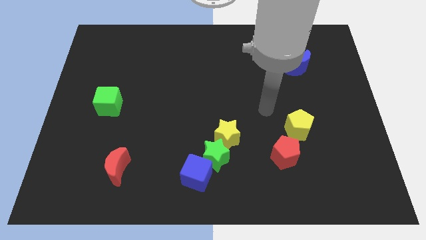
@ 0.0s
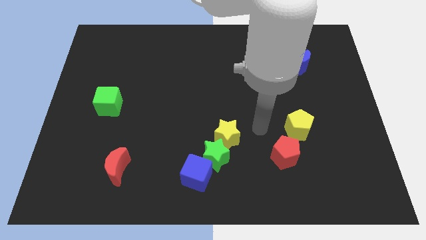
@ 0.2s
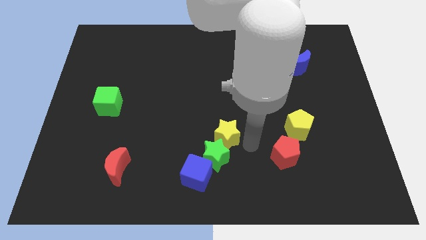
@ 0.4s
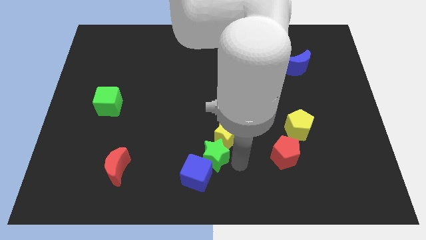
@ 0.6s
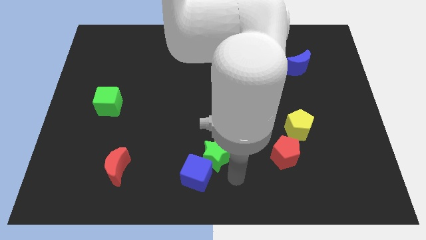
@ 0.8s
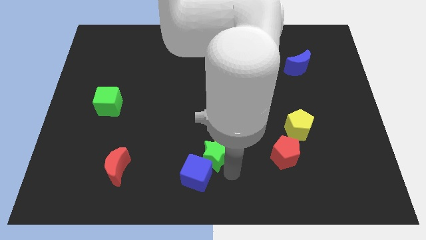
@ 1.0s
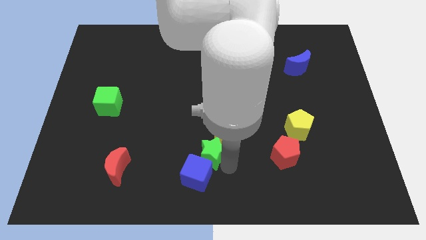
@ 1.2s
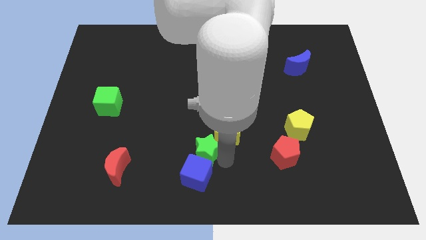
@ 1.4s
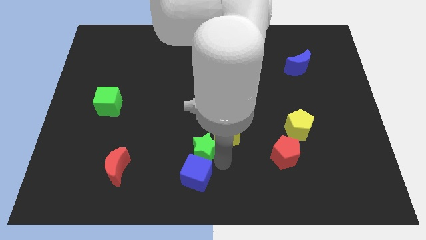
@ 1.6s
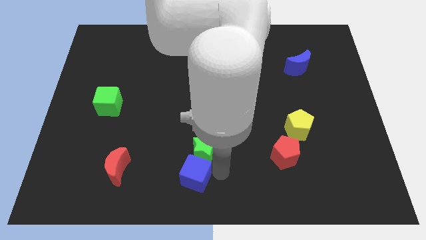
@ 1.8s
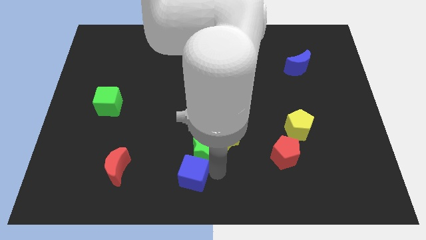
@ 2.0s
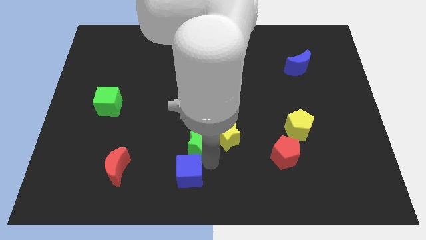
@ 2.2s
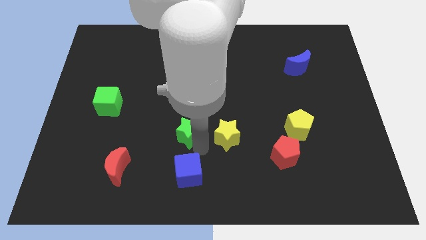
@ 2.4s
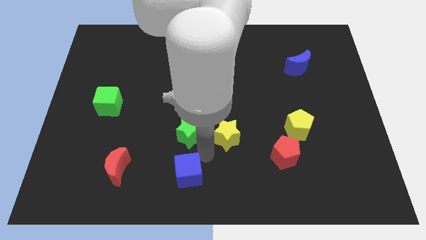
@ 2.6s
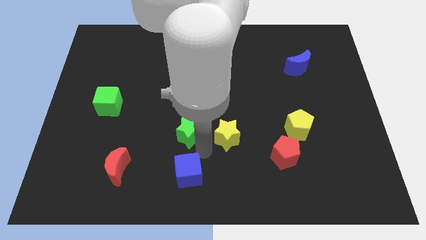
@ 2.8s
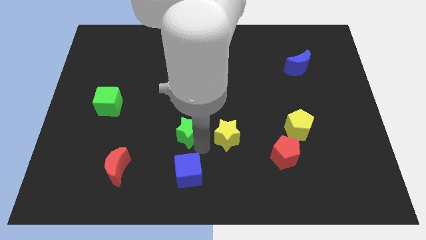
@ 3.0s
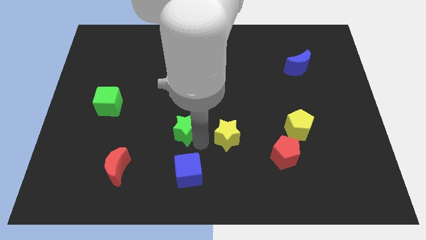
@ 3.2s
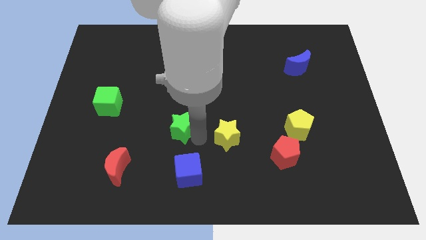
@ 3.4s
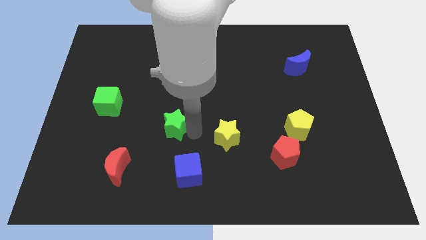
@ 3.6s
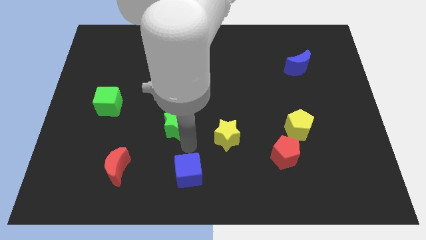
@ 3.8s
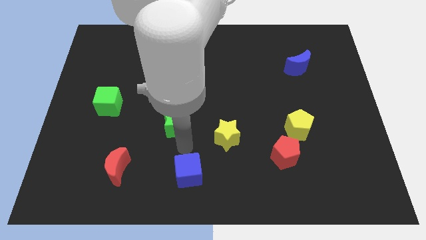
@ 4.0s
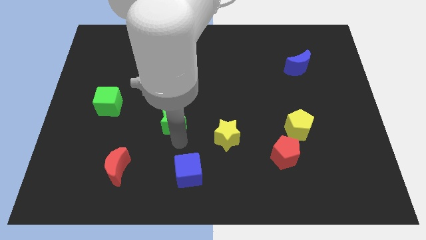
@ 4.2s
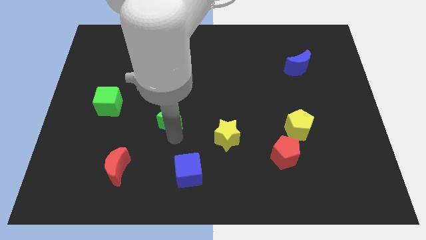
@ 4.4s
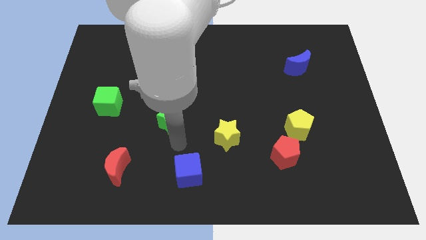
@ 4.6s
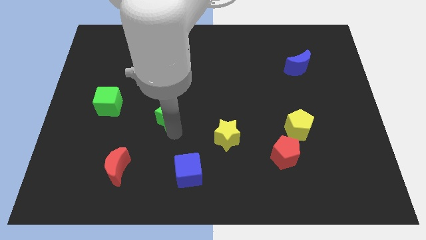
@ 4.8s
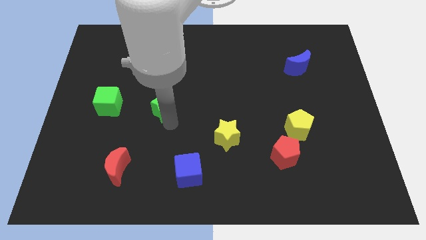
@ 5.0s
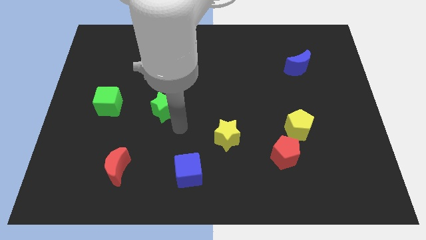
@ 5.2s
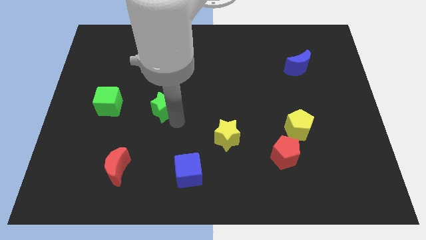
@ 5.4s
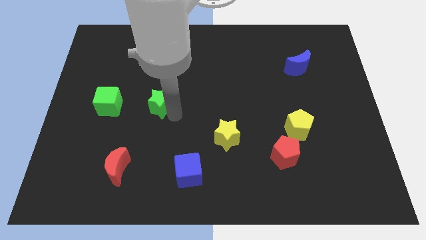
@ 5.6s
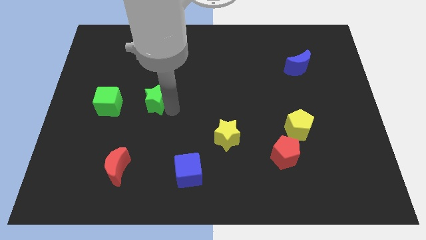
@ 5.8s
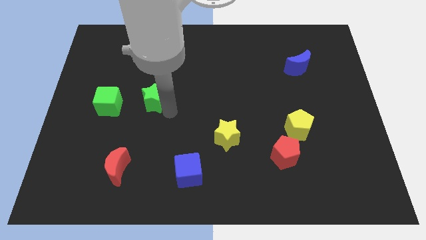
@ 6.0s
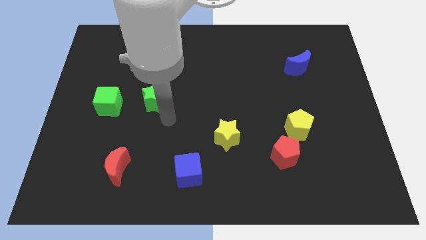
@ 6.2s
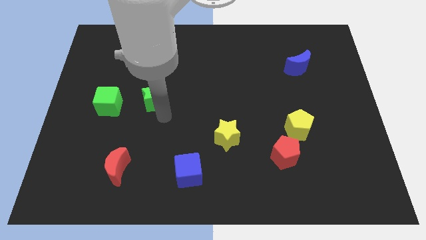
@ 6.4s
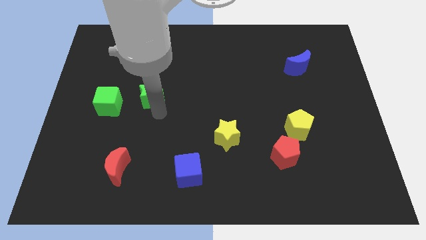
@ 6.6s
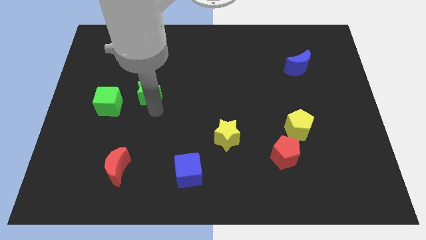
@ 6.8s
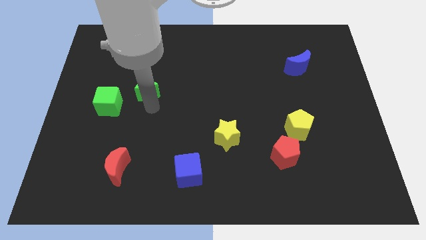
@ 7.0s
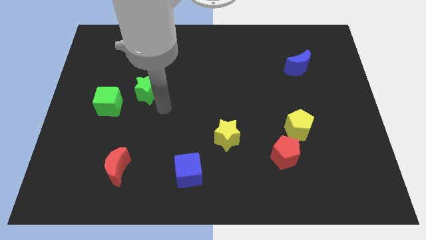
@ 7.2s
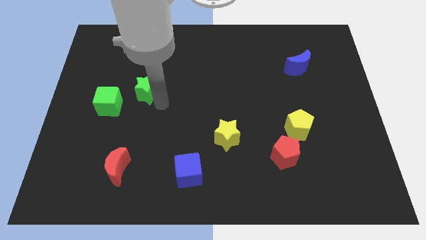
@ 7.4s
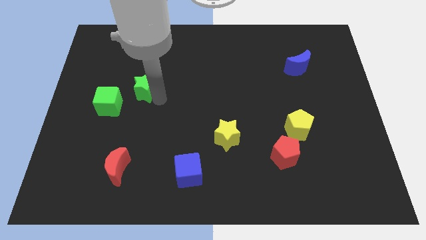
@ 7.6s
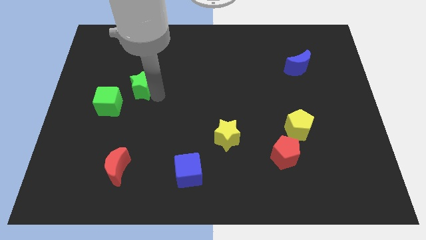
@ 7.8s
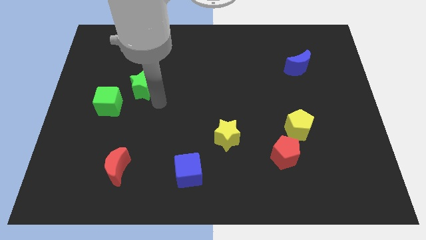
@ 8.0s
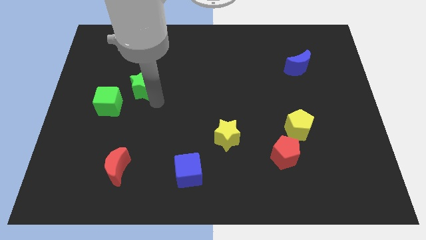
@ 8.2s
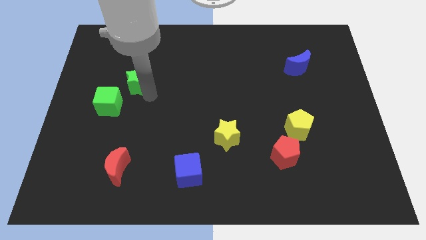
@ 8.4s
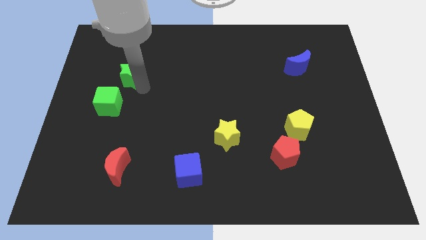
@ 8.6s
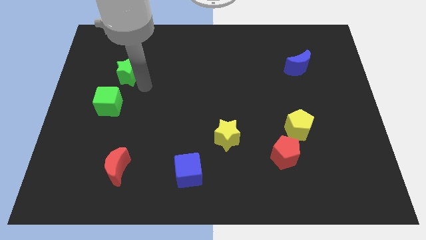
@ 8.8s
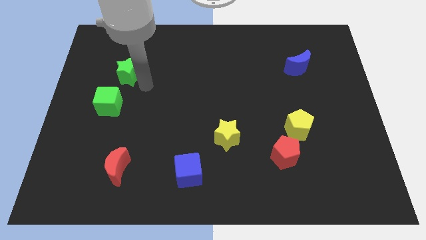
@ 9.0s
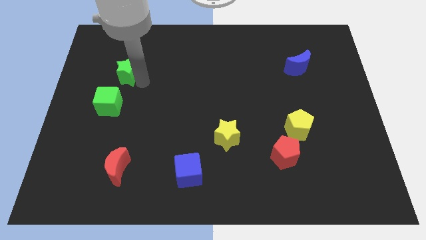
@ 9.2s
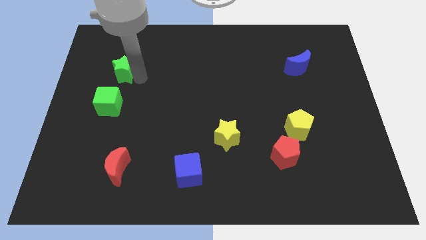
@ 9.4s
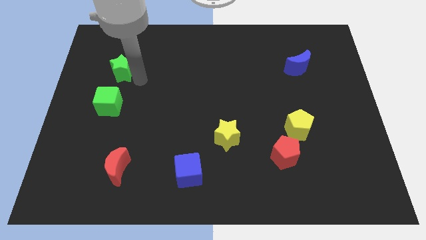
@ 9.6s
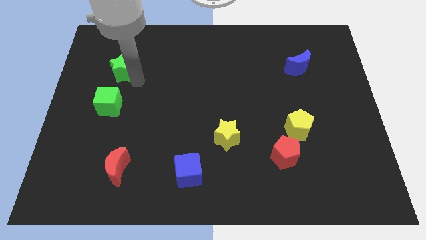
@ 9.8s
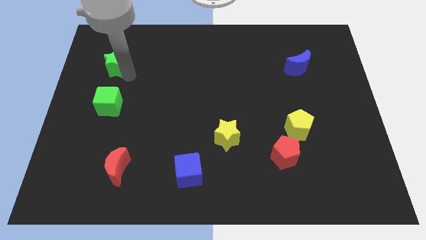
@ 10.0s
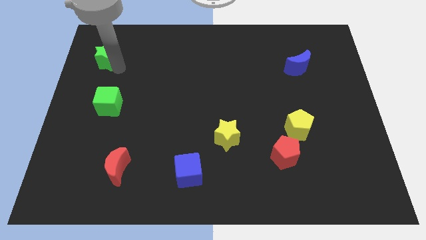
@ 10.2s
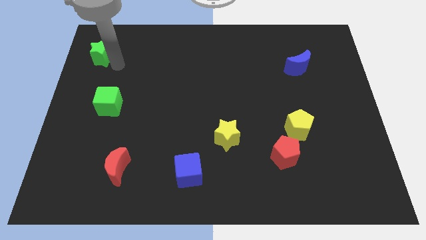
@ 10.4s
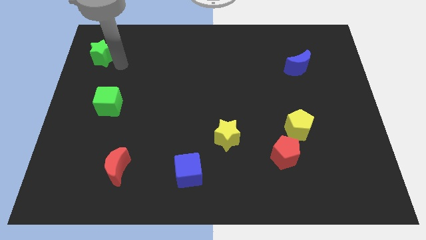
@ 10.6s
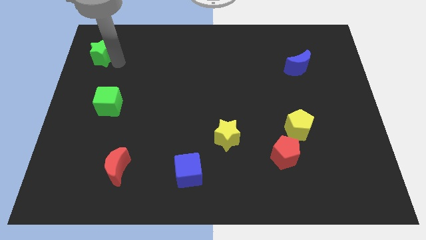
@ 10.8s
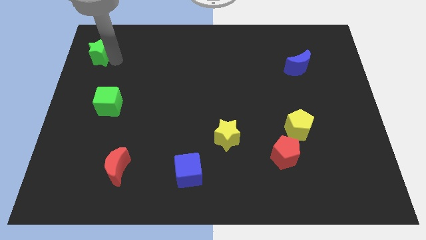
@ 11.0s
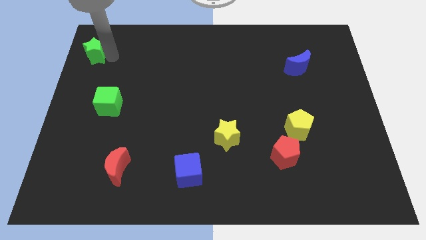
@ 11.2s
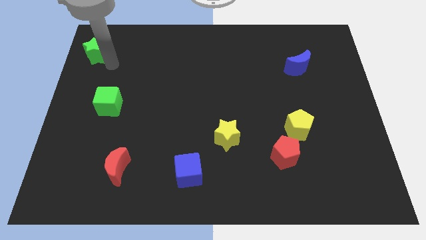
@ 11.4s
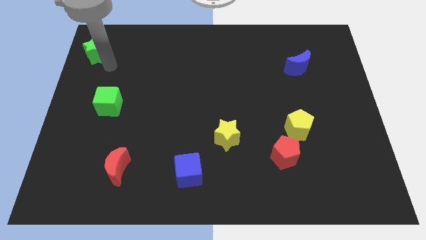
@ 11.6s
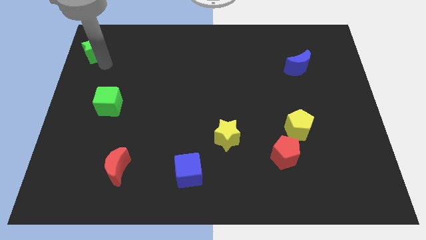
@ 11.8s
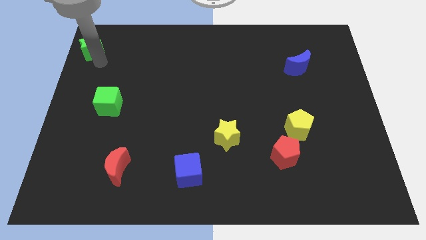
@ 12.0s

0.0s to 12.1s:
push the green star to the top left
